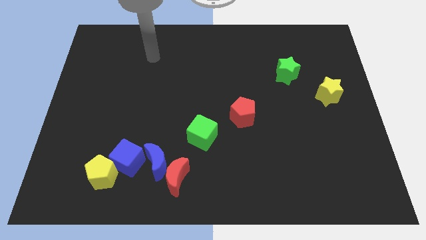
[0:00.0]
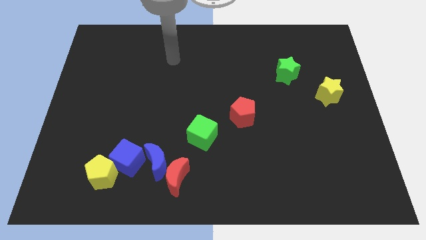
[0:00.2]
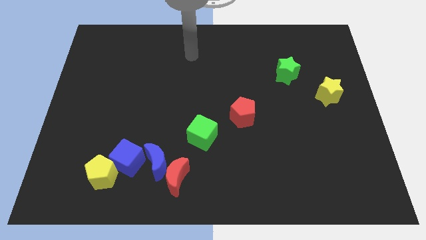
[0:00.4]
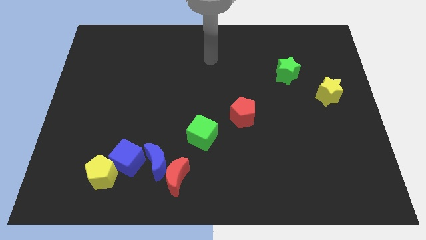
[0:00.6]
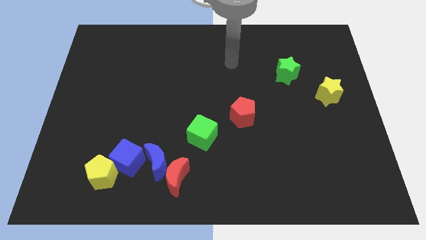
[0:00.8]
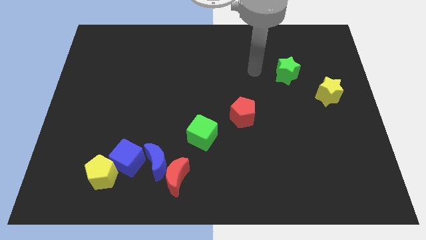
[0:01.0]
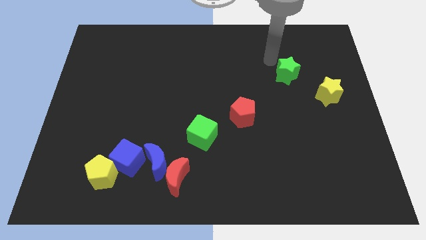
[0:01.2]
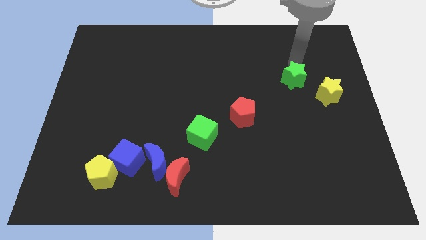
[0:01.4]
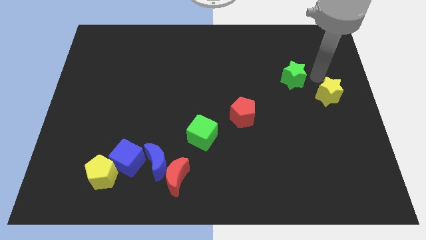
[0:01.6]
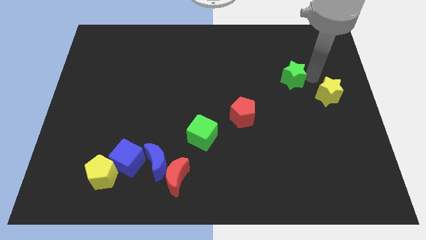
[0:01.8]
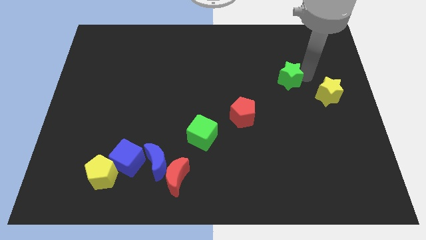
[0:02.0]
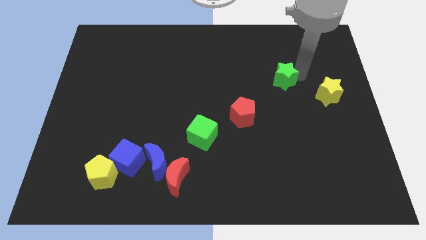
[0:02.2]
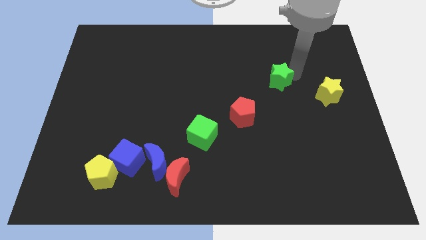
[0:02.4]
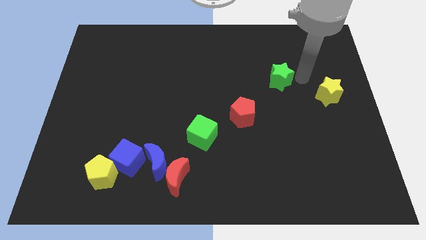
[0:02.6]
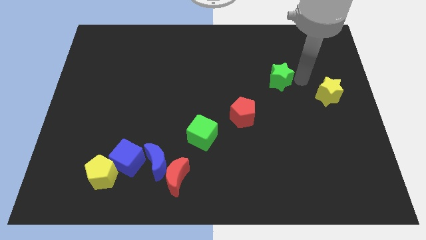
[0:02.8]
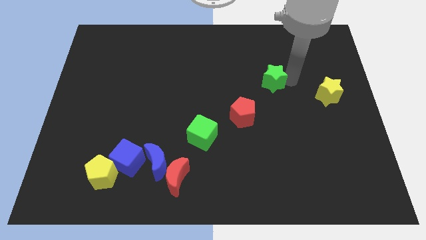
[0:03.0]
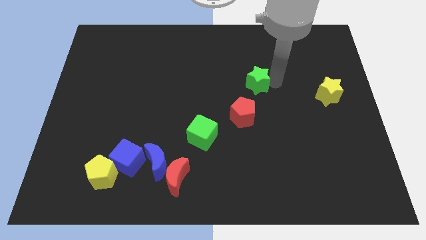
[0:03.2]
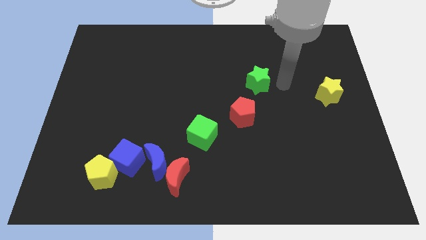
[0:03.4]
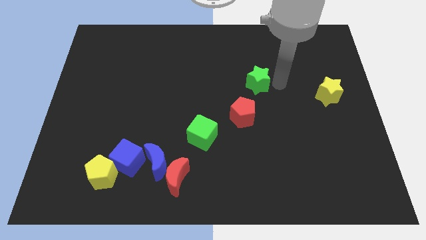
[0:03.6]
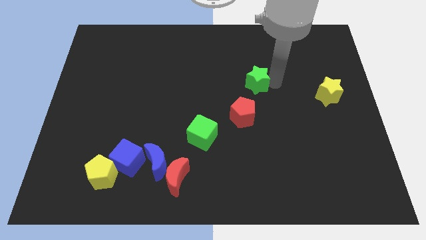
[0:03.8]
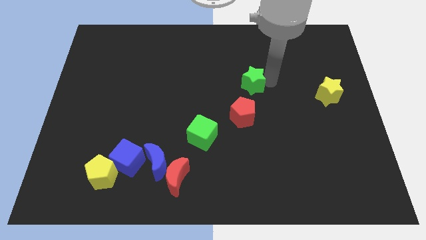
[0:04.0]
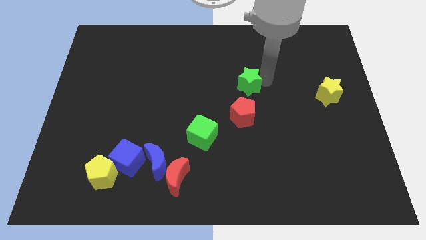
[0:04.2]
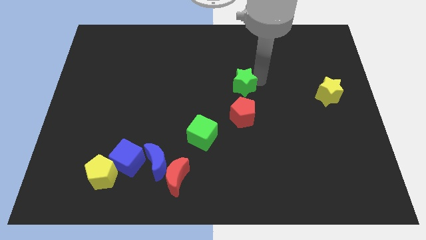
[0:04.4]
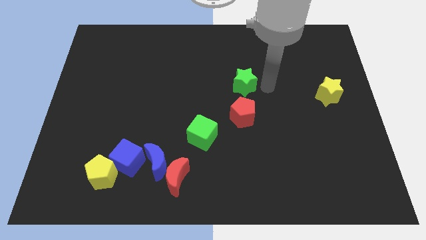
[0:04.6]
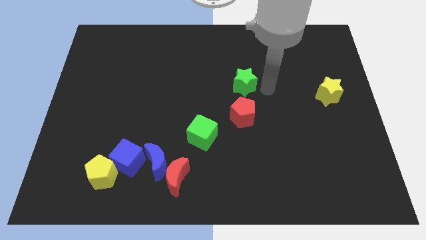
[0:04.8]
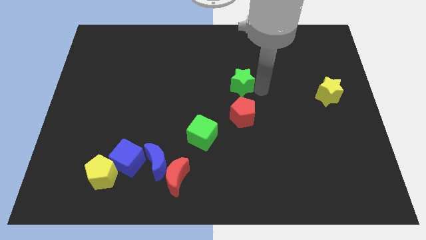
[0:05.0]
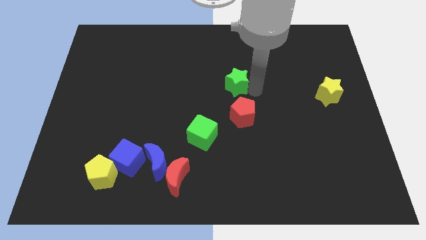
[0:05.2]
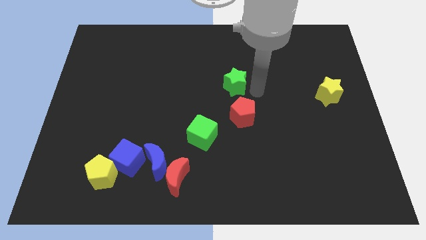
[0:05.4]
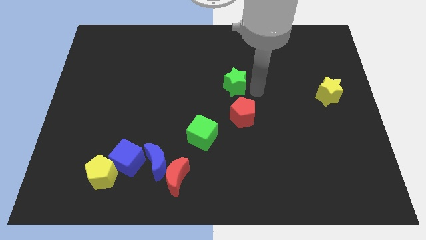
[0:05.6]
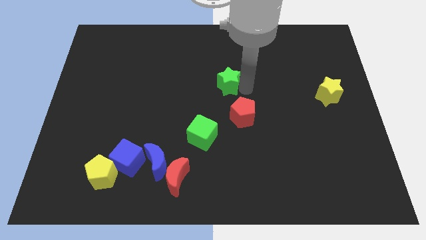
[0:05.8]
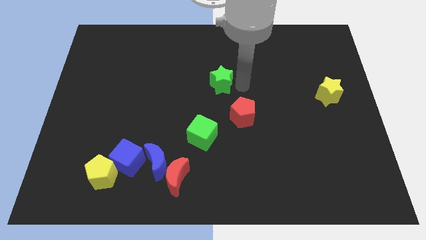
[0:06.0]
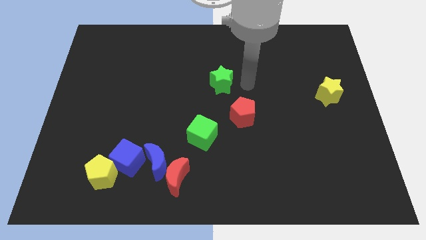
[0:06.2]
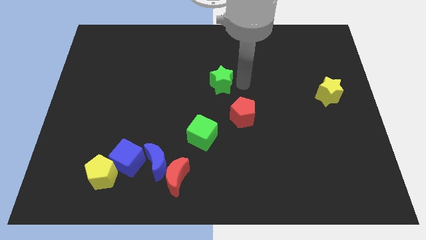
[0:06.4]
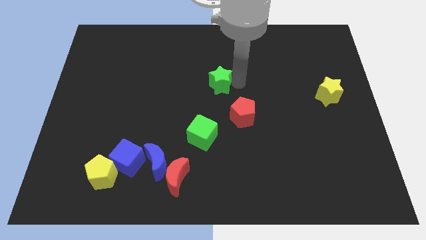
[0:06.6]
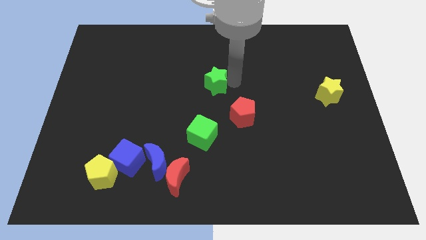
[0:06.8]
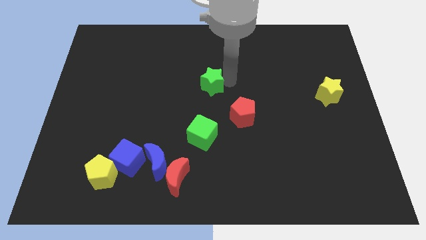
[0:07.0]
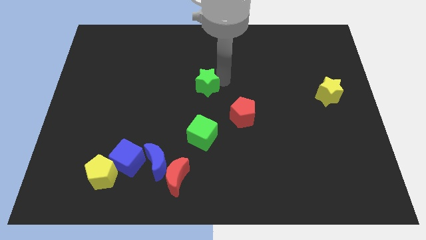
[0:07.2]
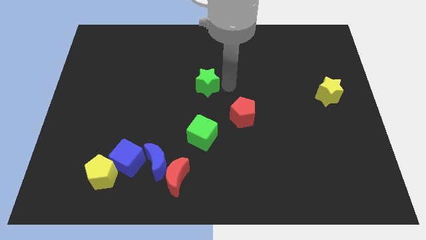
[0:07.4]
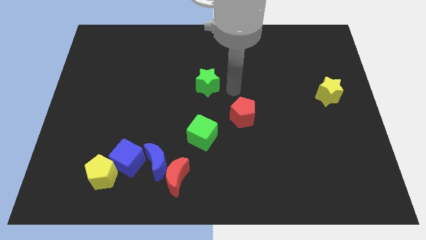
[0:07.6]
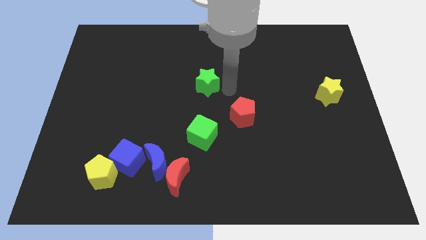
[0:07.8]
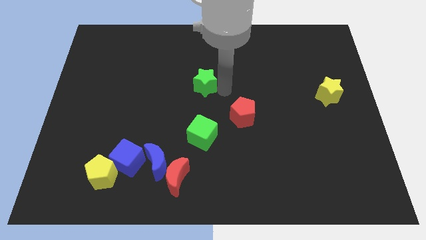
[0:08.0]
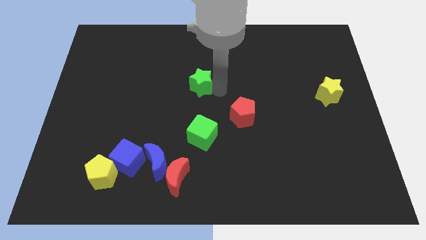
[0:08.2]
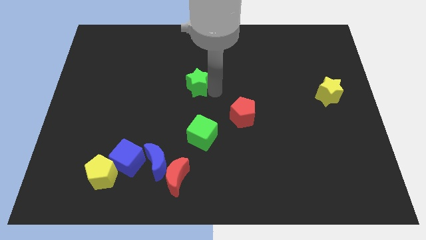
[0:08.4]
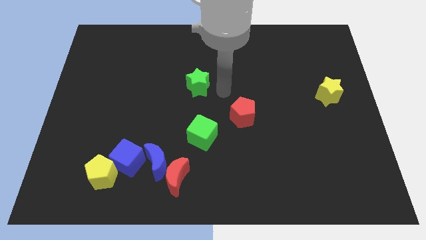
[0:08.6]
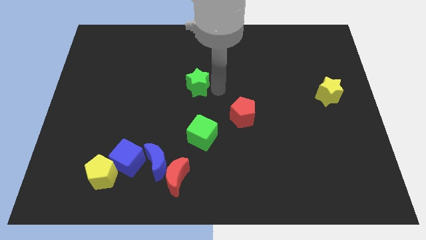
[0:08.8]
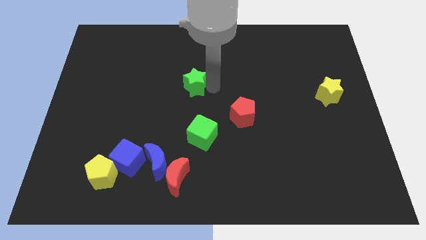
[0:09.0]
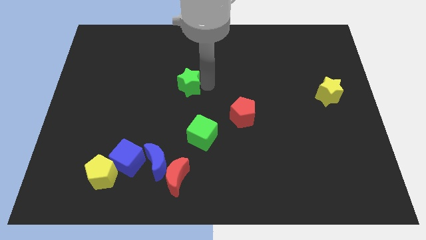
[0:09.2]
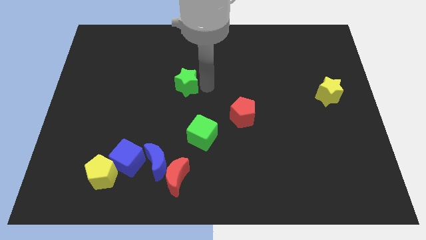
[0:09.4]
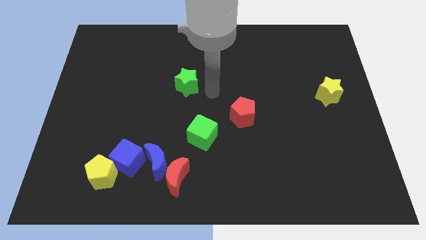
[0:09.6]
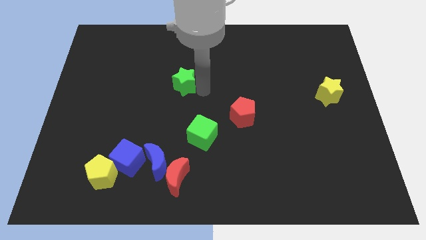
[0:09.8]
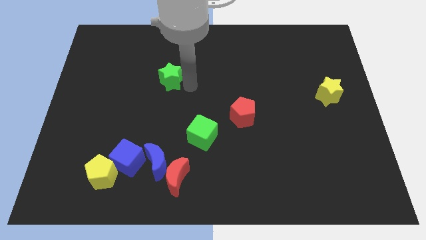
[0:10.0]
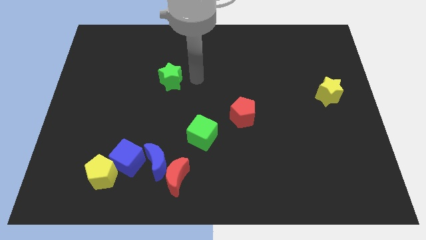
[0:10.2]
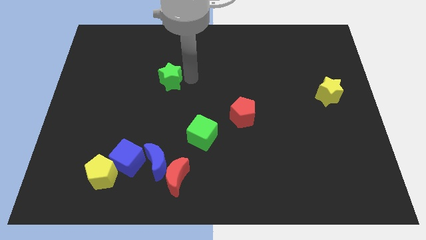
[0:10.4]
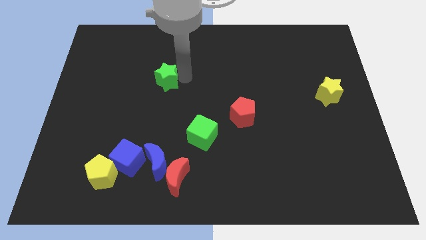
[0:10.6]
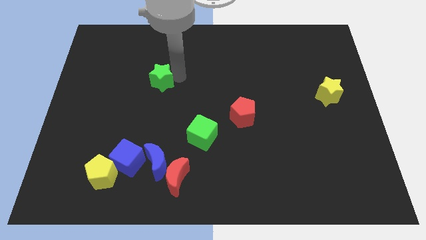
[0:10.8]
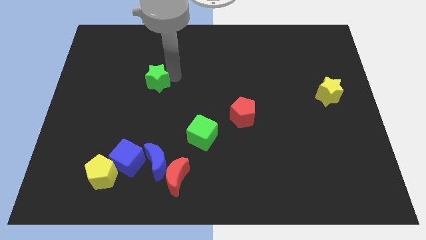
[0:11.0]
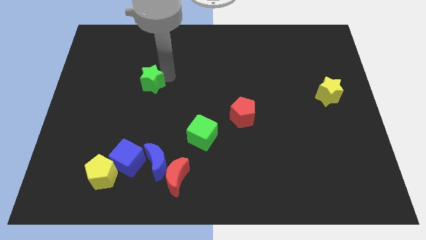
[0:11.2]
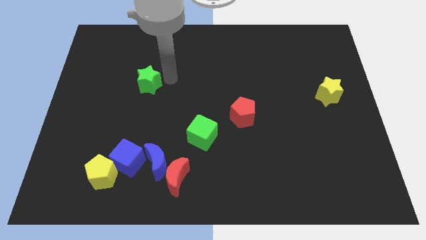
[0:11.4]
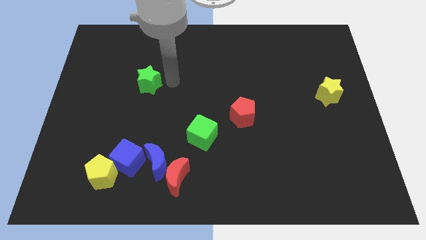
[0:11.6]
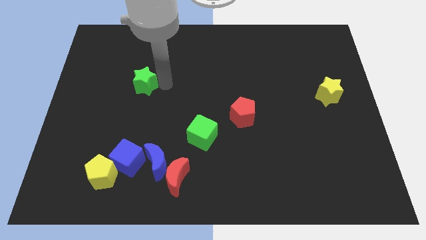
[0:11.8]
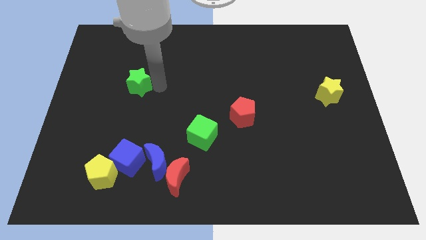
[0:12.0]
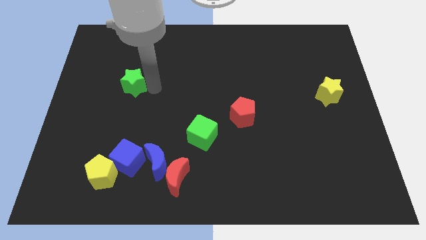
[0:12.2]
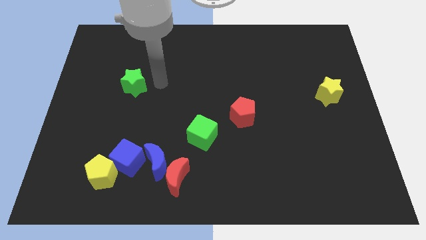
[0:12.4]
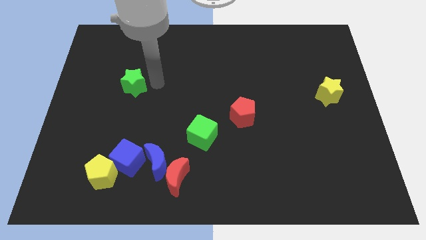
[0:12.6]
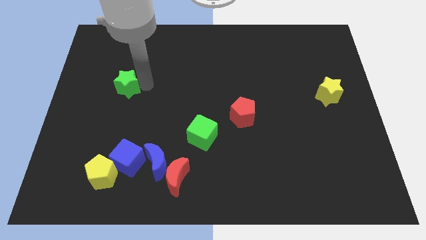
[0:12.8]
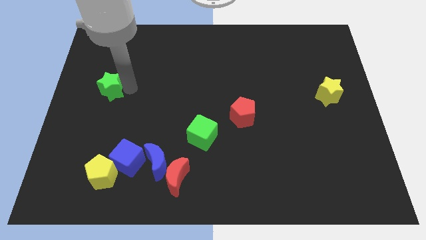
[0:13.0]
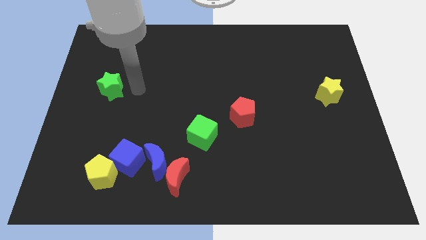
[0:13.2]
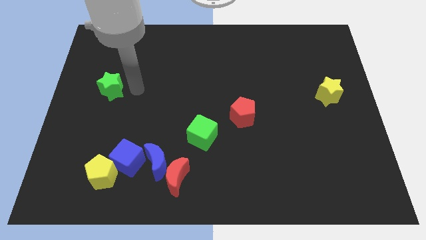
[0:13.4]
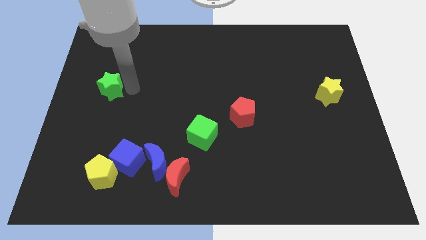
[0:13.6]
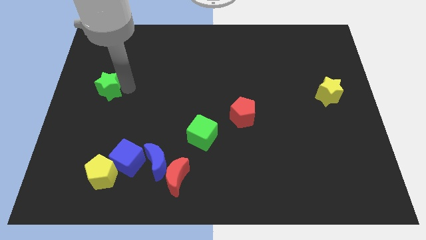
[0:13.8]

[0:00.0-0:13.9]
move the green star to the center left

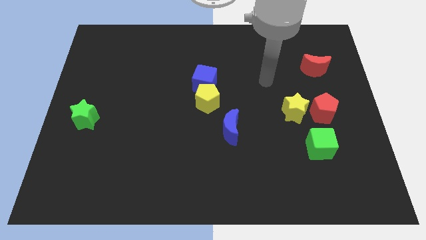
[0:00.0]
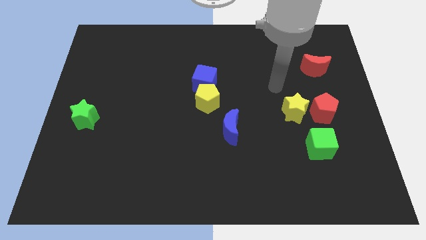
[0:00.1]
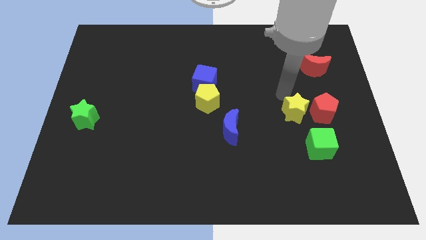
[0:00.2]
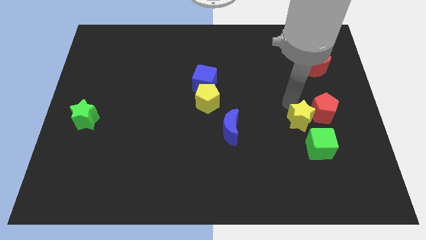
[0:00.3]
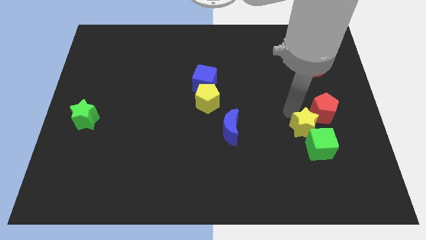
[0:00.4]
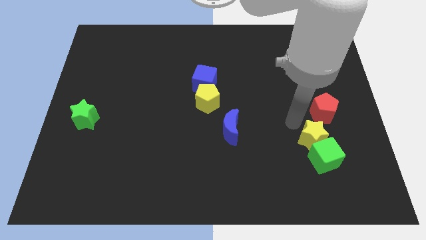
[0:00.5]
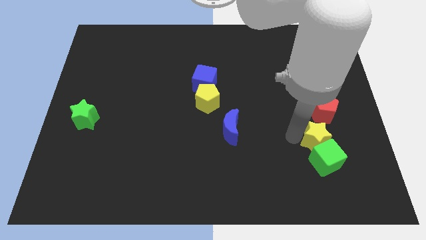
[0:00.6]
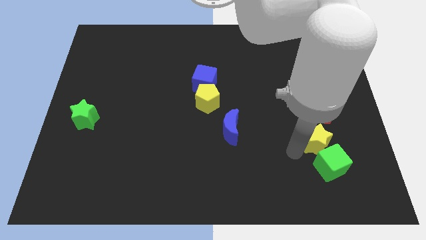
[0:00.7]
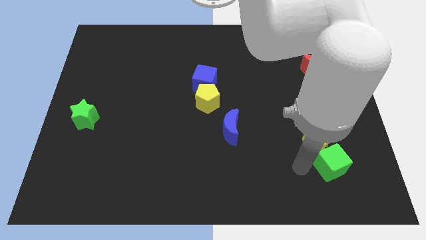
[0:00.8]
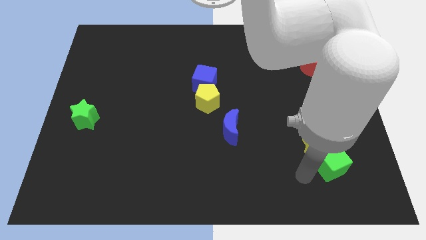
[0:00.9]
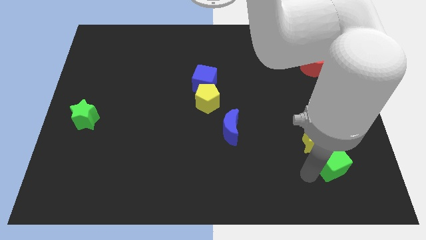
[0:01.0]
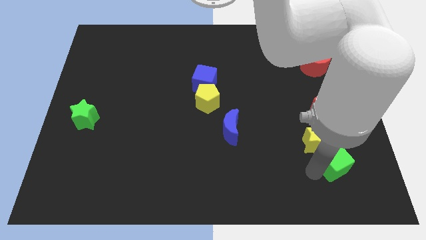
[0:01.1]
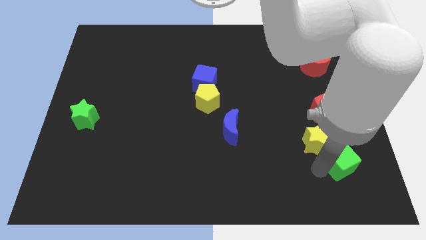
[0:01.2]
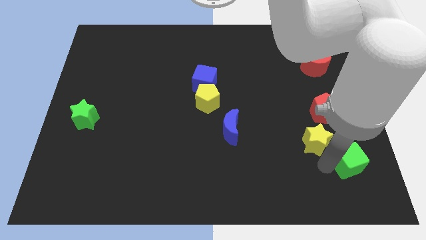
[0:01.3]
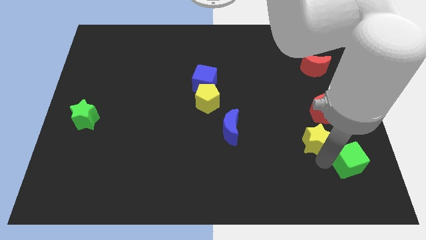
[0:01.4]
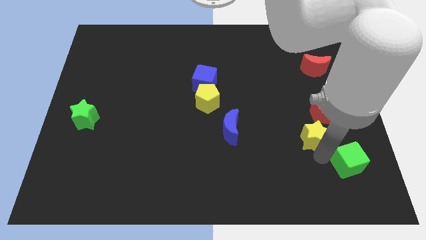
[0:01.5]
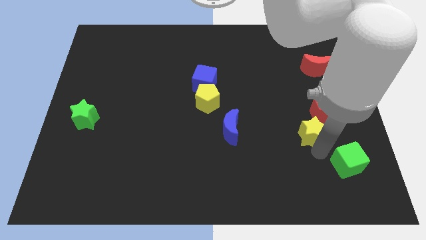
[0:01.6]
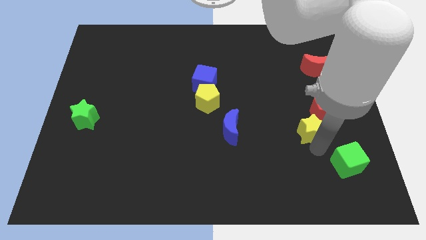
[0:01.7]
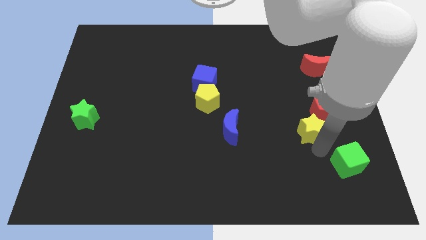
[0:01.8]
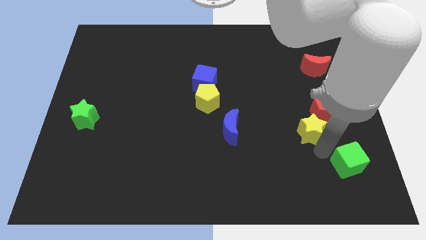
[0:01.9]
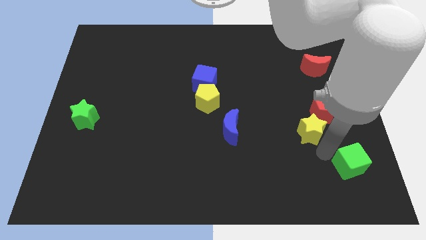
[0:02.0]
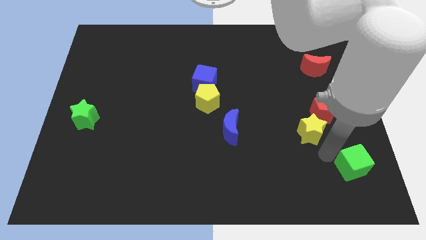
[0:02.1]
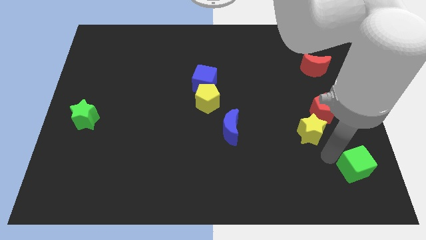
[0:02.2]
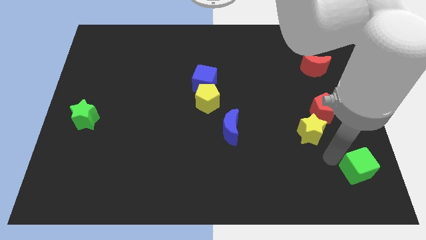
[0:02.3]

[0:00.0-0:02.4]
push the green cube to the bottom right
